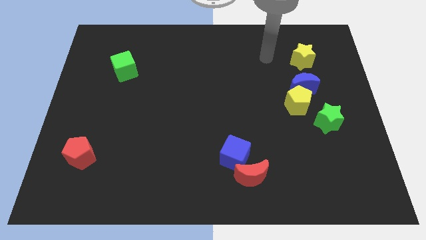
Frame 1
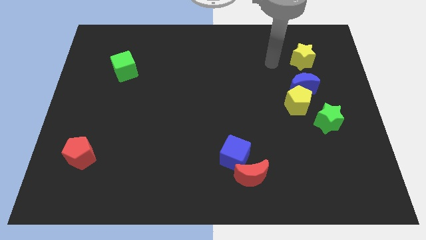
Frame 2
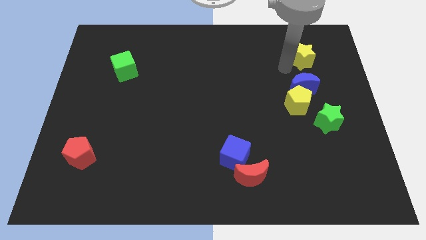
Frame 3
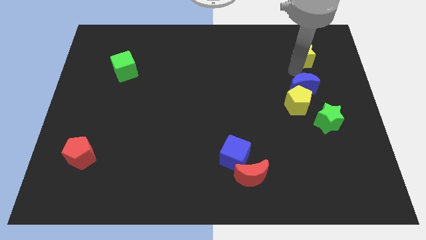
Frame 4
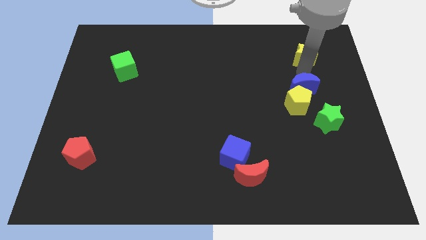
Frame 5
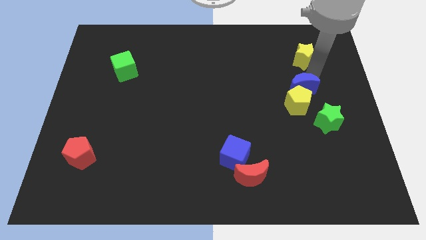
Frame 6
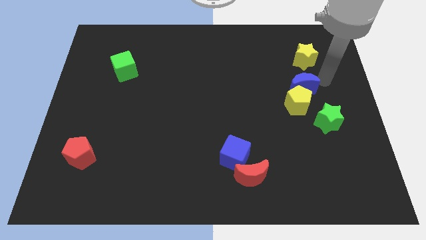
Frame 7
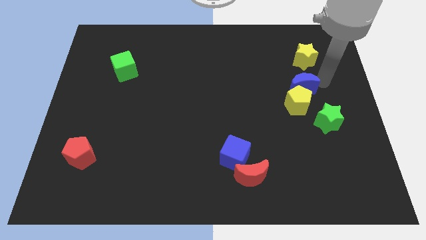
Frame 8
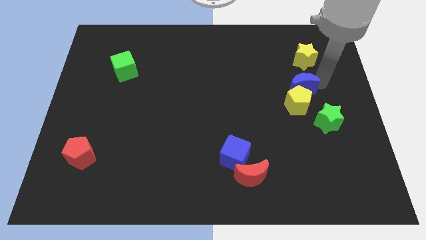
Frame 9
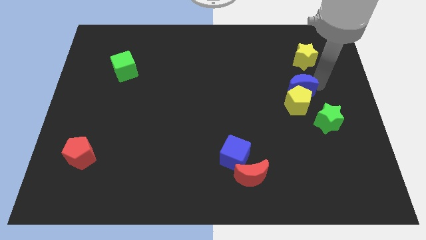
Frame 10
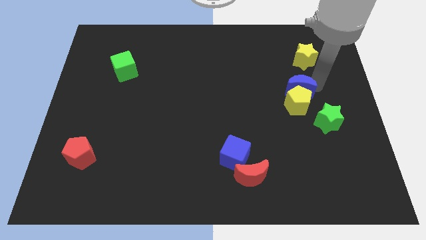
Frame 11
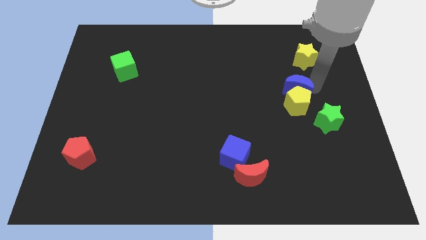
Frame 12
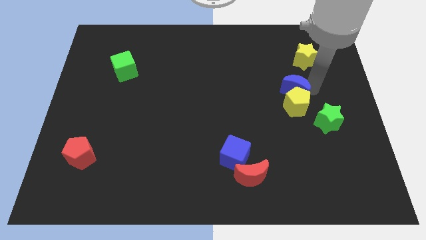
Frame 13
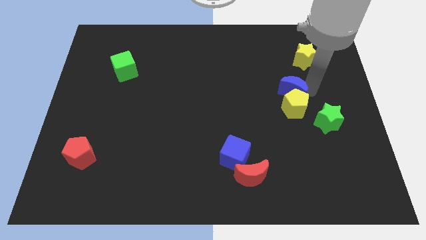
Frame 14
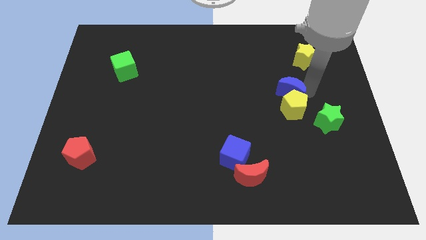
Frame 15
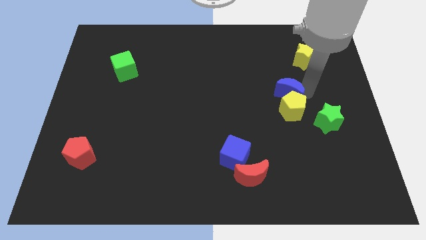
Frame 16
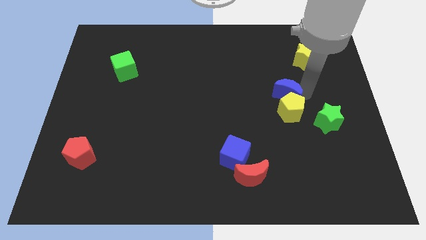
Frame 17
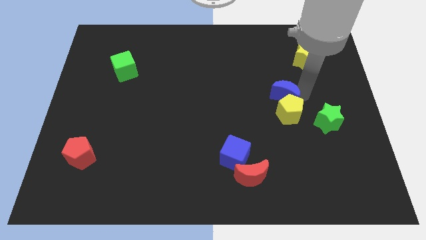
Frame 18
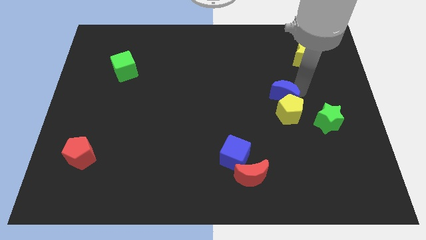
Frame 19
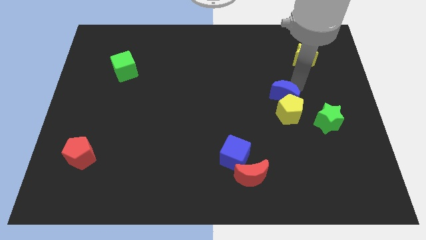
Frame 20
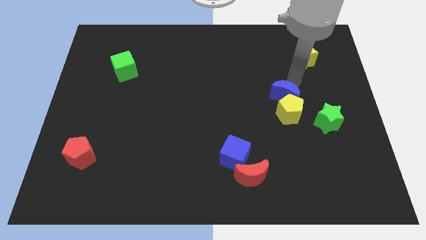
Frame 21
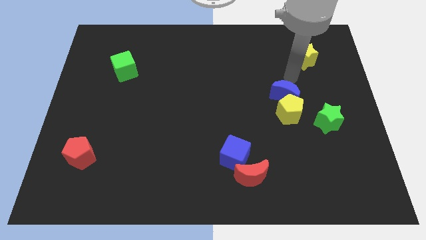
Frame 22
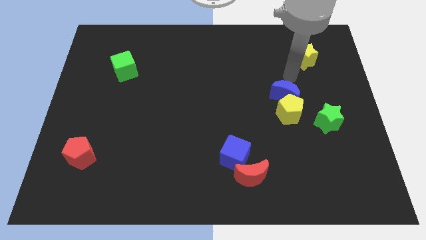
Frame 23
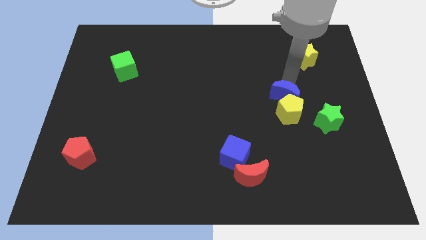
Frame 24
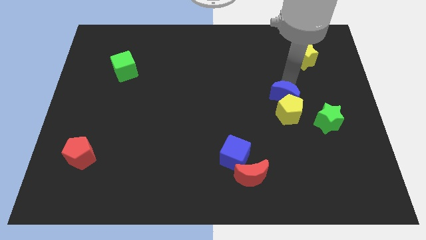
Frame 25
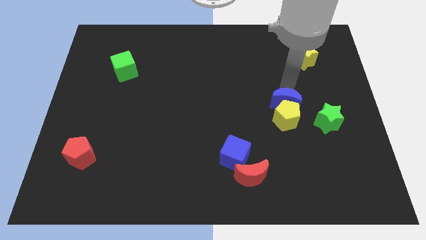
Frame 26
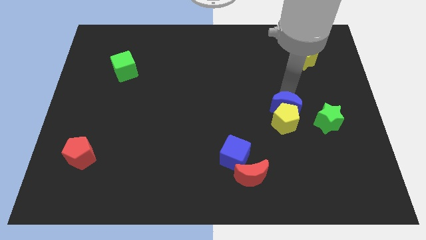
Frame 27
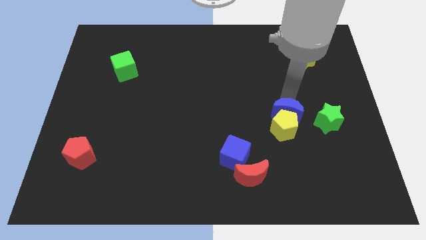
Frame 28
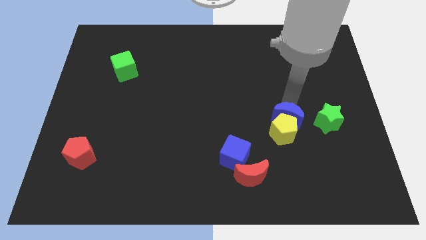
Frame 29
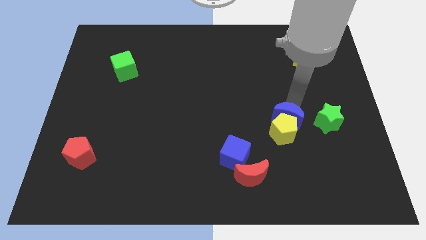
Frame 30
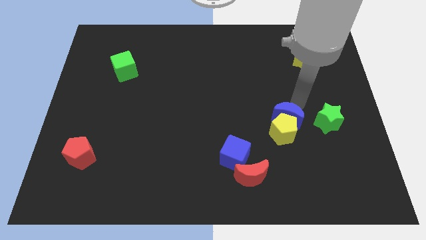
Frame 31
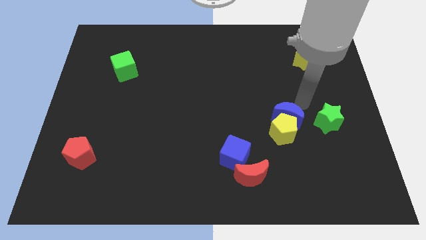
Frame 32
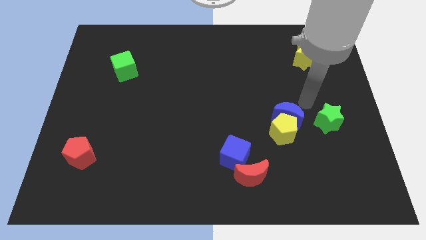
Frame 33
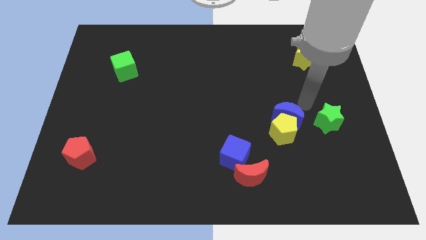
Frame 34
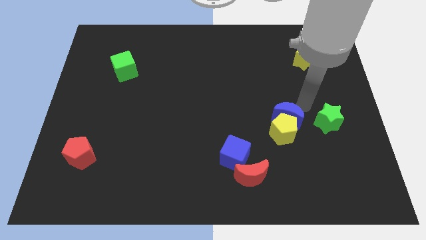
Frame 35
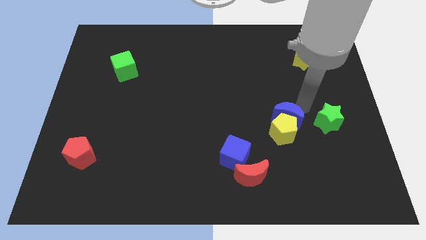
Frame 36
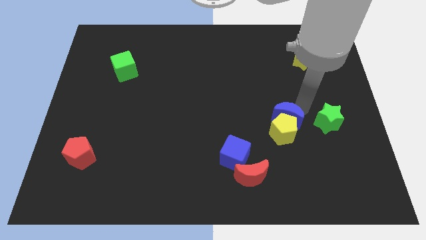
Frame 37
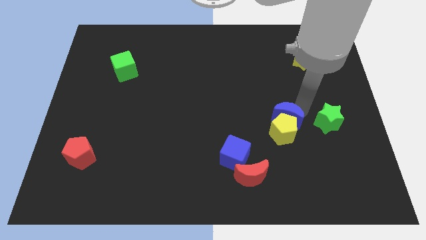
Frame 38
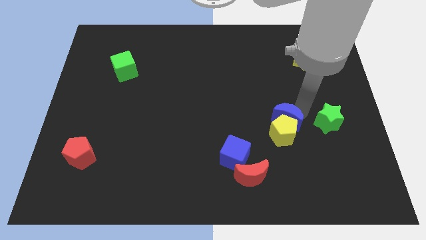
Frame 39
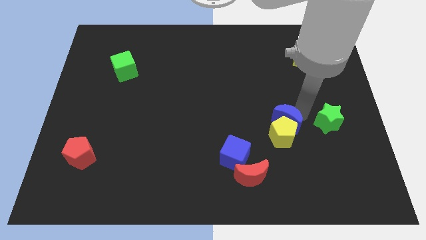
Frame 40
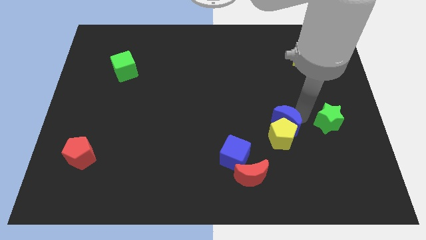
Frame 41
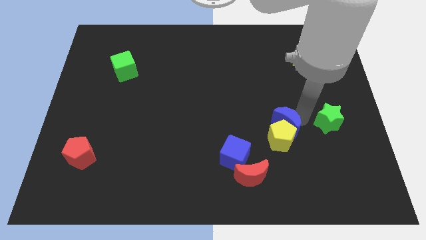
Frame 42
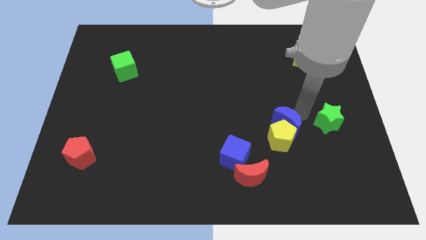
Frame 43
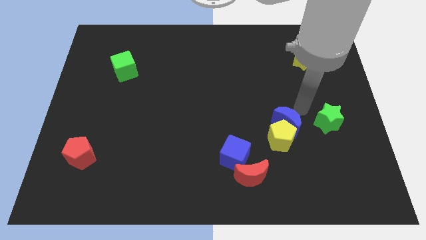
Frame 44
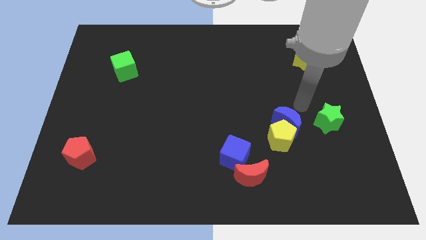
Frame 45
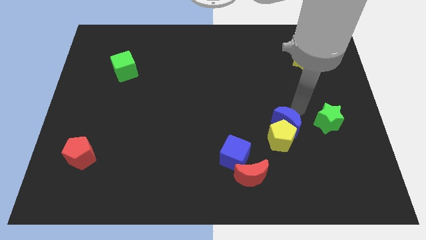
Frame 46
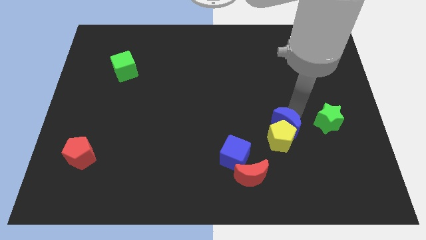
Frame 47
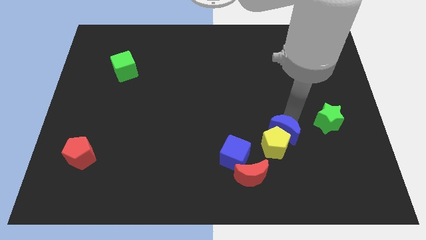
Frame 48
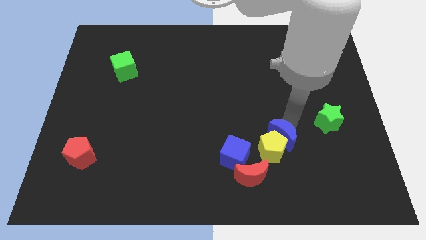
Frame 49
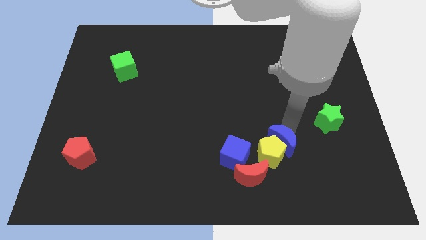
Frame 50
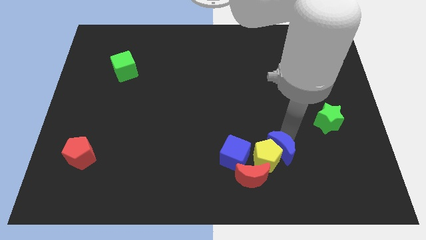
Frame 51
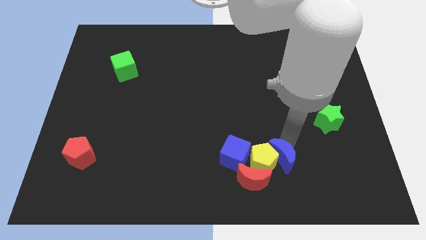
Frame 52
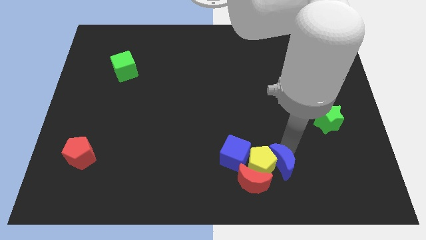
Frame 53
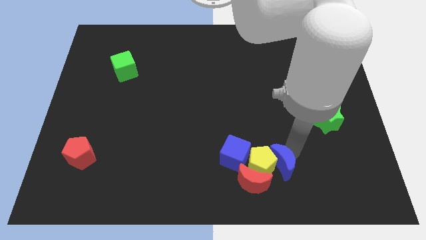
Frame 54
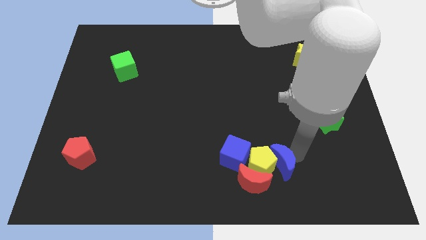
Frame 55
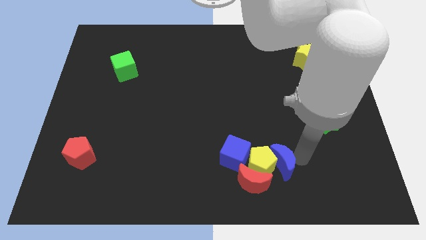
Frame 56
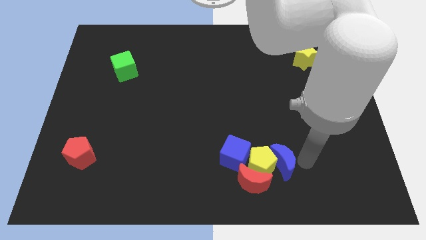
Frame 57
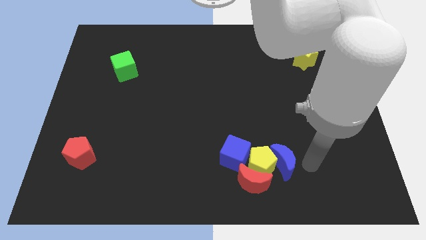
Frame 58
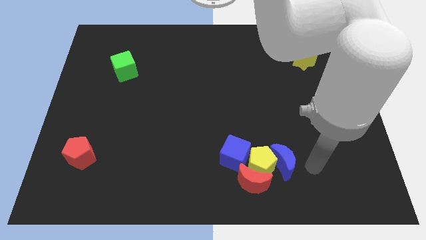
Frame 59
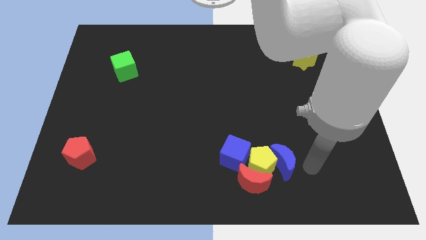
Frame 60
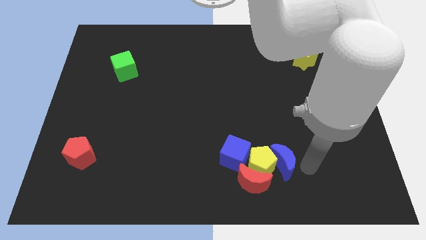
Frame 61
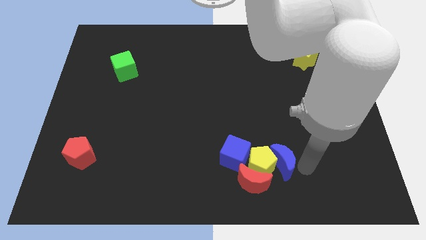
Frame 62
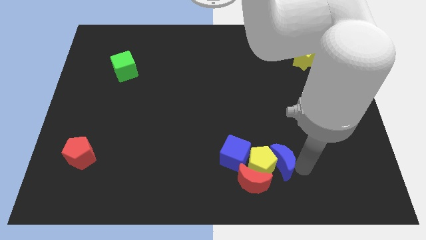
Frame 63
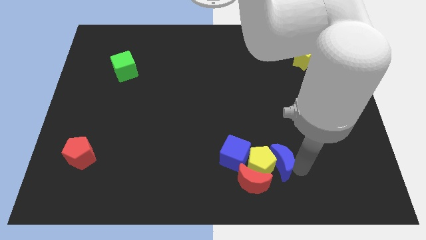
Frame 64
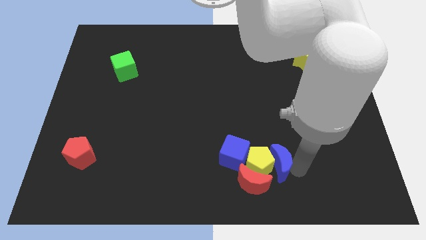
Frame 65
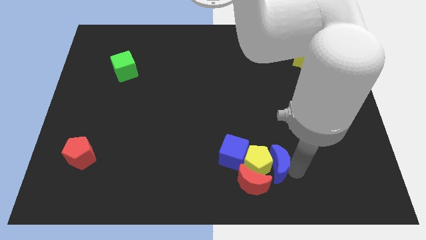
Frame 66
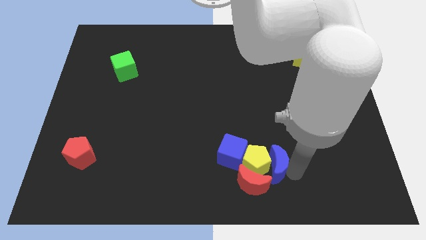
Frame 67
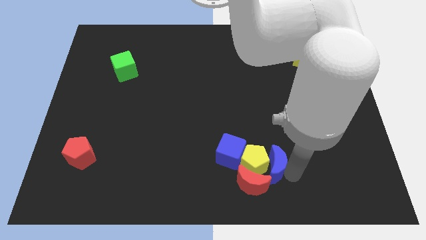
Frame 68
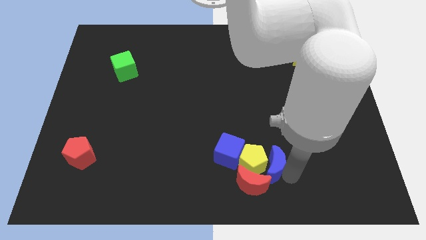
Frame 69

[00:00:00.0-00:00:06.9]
put the blue moon to the red moon
